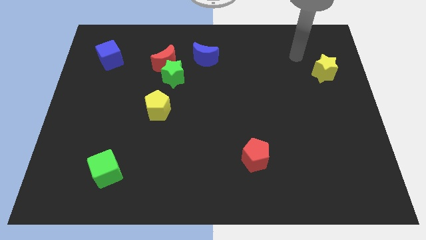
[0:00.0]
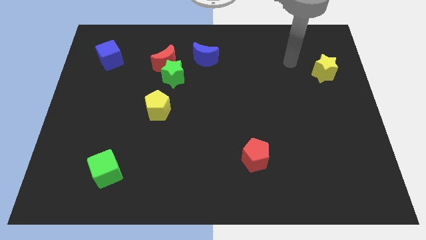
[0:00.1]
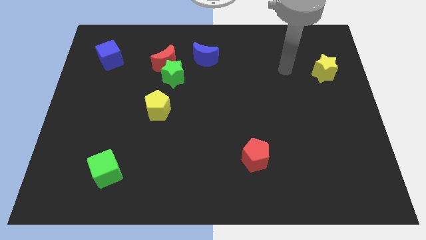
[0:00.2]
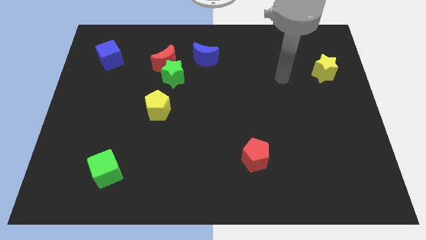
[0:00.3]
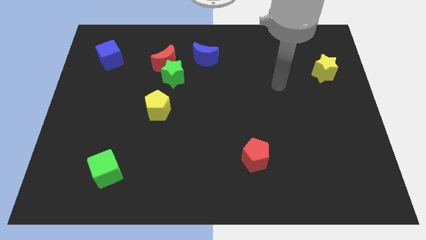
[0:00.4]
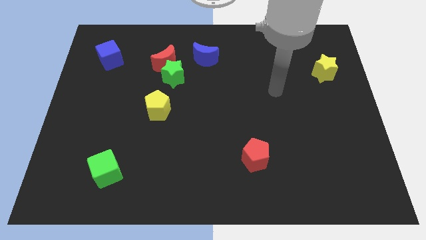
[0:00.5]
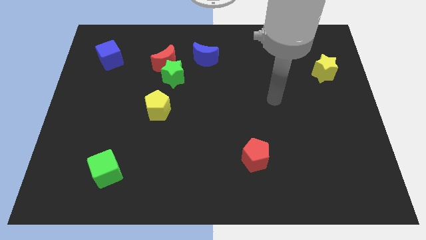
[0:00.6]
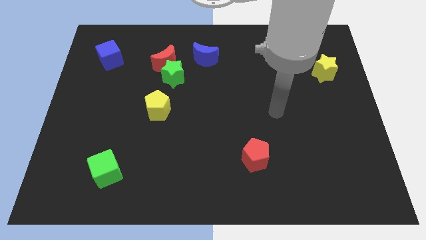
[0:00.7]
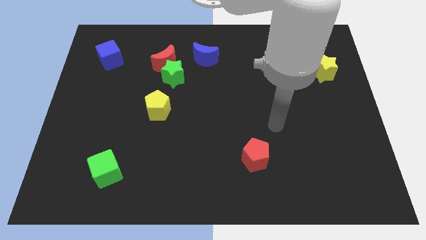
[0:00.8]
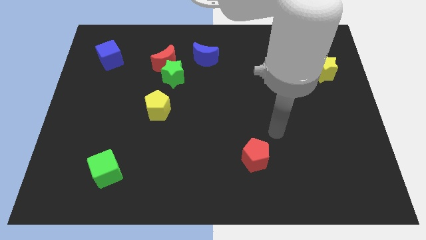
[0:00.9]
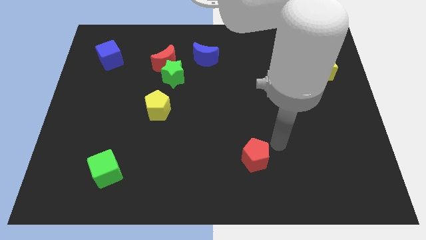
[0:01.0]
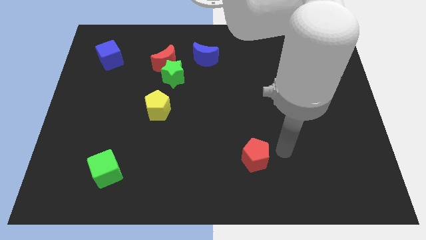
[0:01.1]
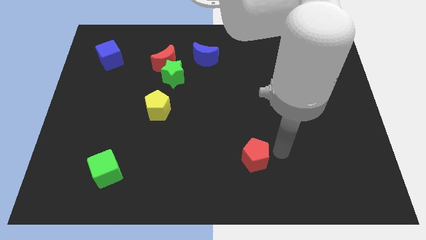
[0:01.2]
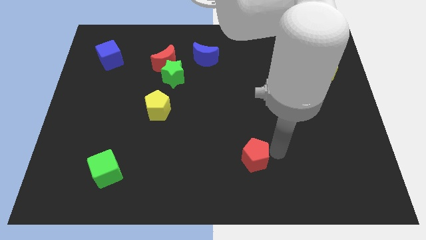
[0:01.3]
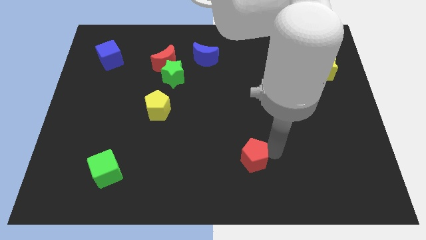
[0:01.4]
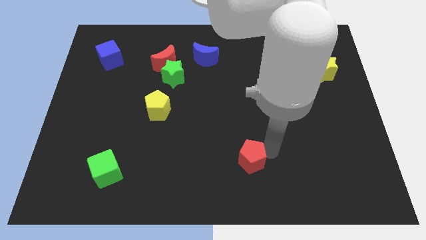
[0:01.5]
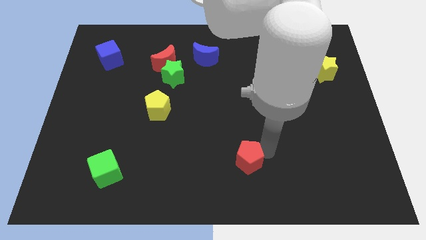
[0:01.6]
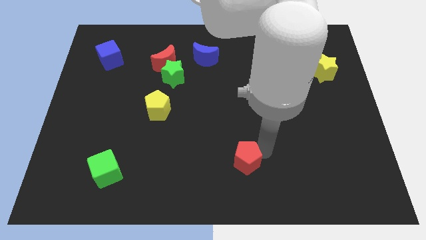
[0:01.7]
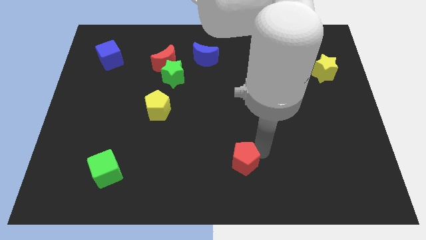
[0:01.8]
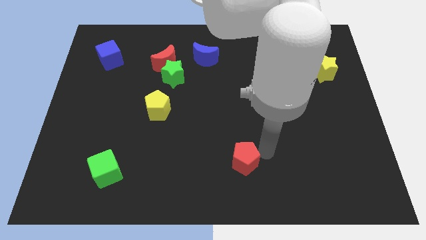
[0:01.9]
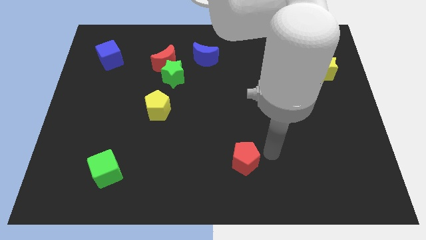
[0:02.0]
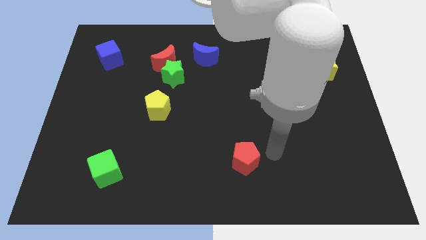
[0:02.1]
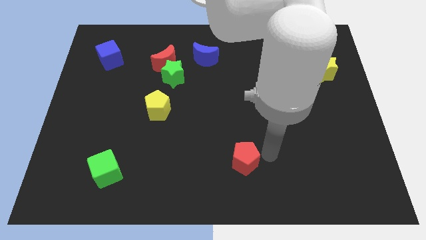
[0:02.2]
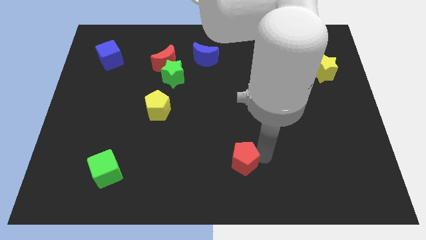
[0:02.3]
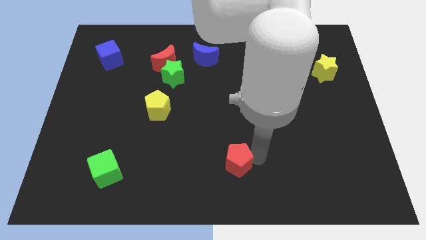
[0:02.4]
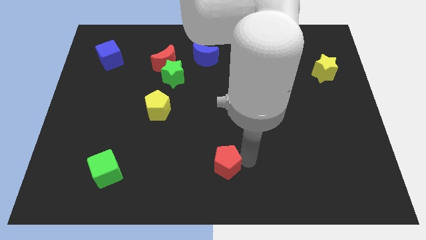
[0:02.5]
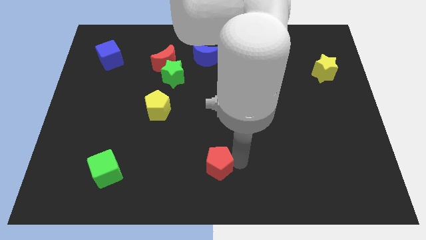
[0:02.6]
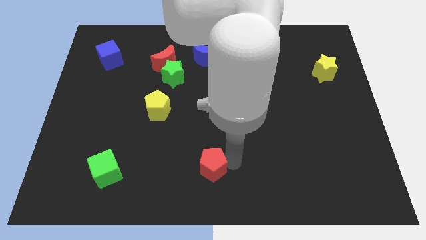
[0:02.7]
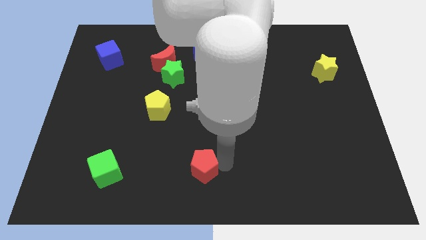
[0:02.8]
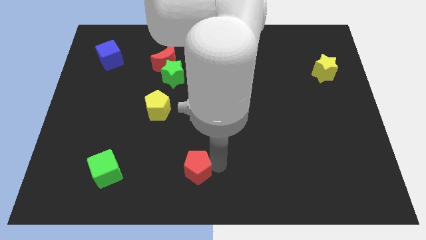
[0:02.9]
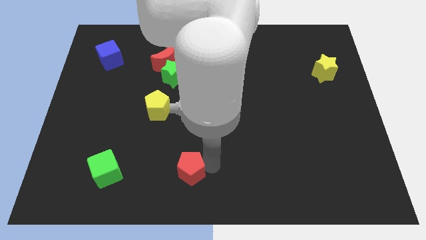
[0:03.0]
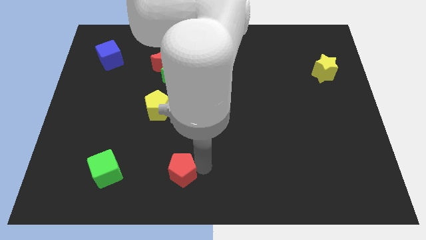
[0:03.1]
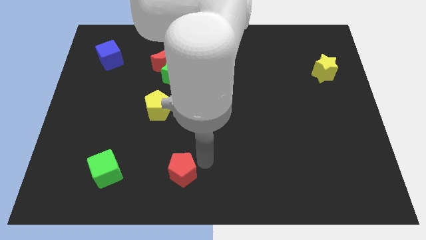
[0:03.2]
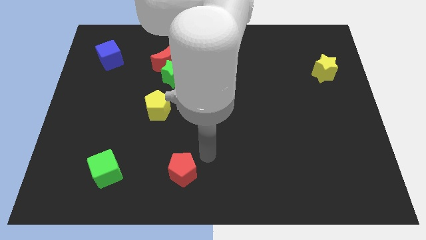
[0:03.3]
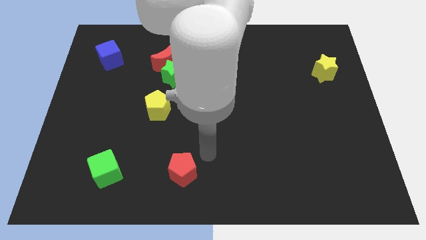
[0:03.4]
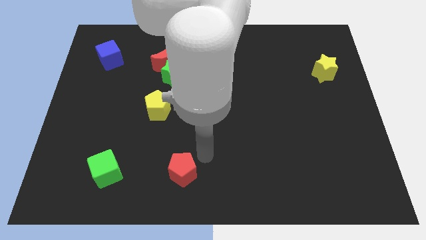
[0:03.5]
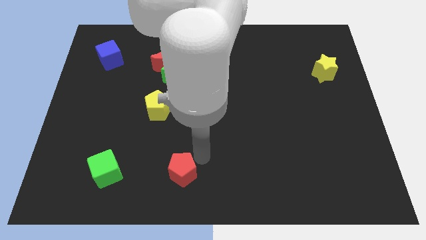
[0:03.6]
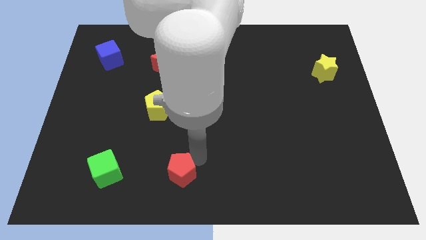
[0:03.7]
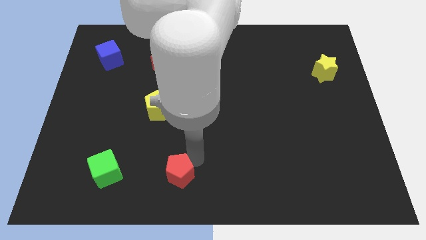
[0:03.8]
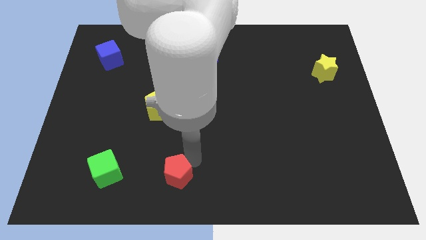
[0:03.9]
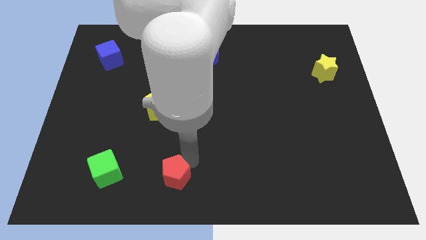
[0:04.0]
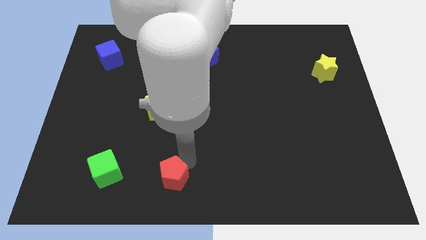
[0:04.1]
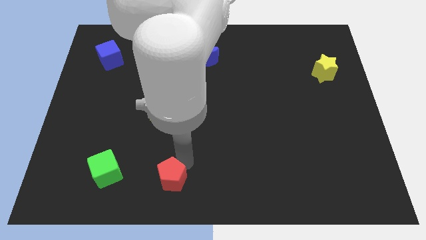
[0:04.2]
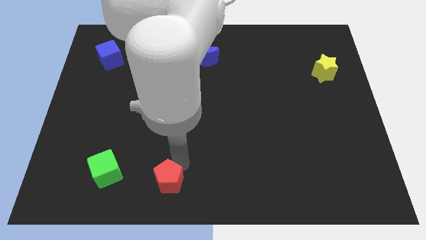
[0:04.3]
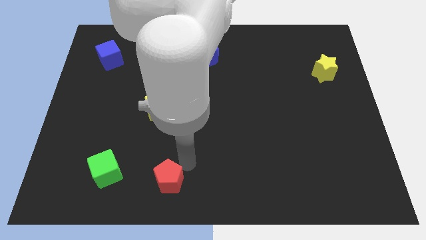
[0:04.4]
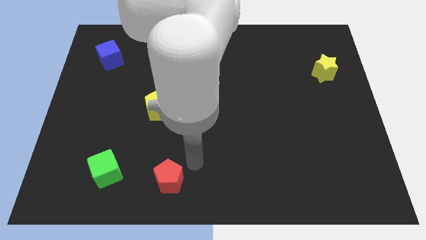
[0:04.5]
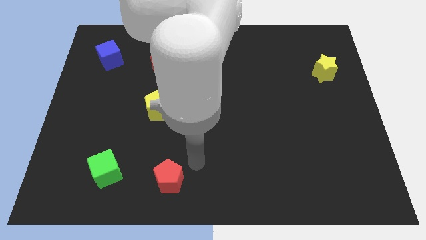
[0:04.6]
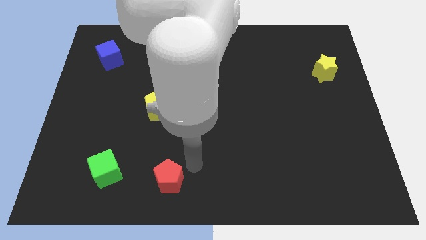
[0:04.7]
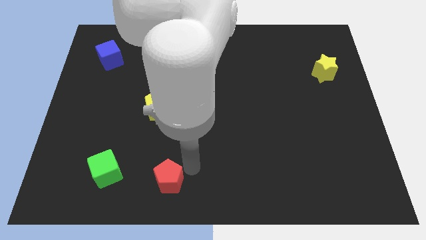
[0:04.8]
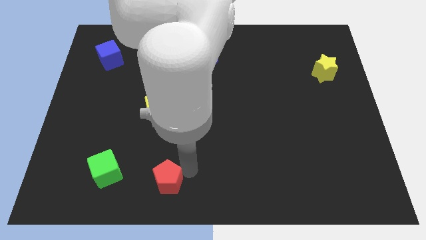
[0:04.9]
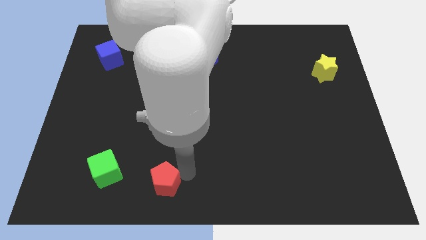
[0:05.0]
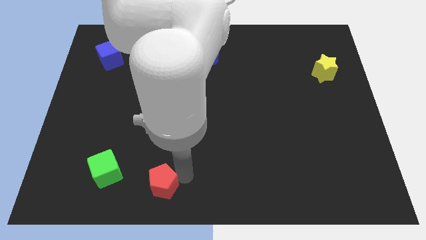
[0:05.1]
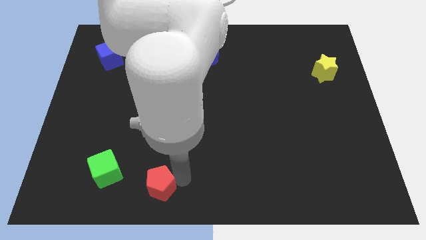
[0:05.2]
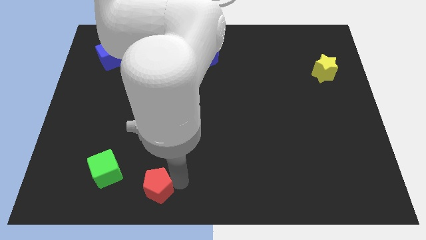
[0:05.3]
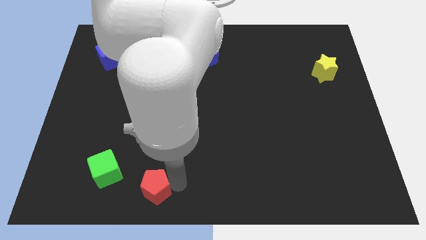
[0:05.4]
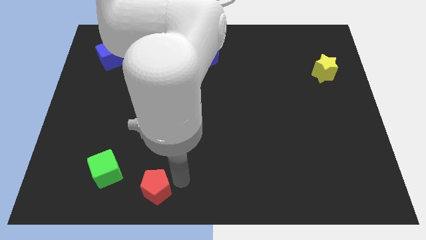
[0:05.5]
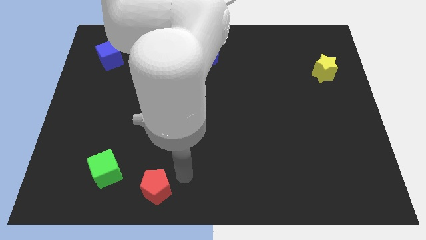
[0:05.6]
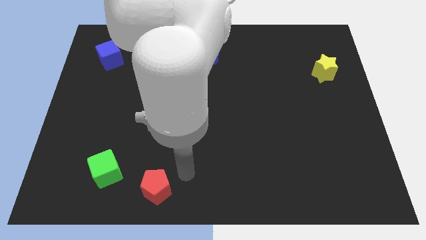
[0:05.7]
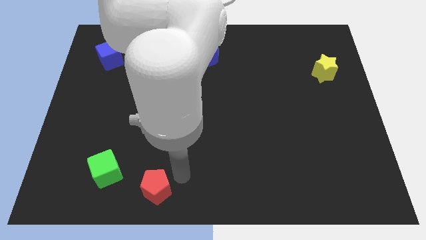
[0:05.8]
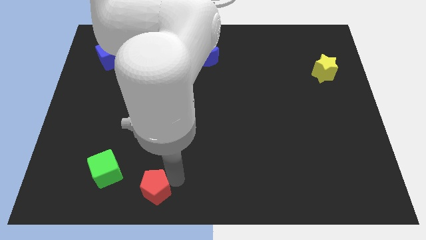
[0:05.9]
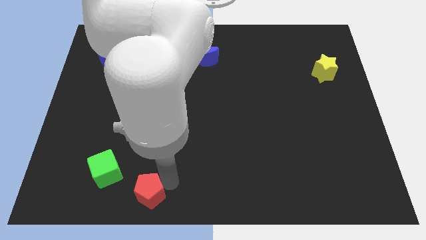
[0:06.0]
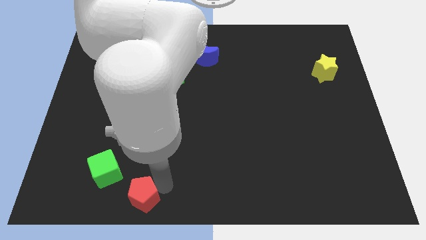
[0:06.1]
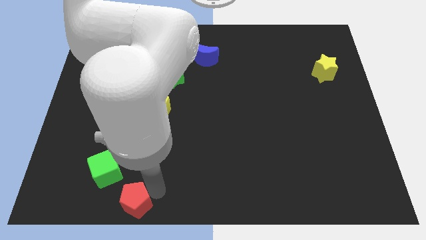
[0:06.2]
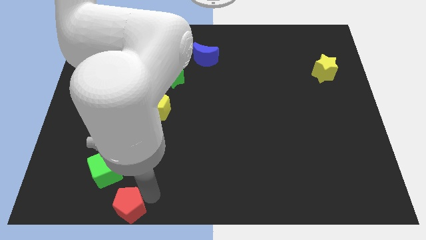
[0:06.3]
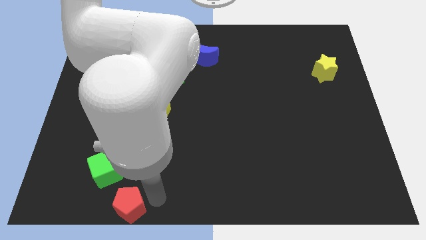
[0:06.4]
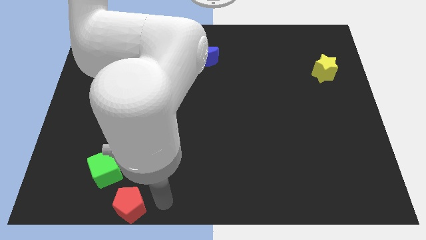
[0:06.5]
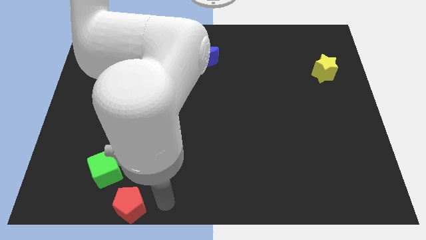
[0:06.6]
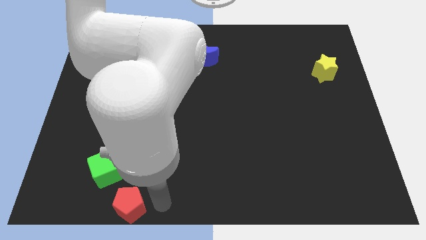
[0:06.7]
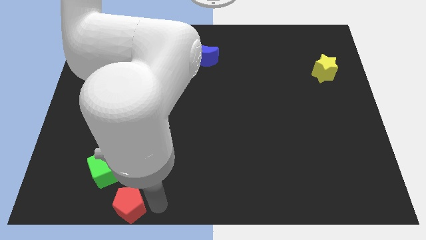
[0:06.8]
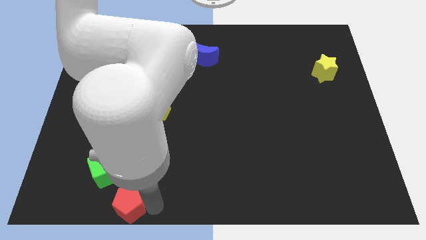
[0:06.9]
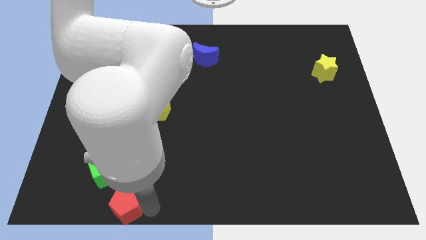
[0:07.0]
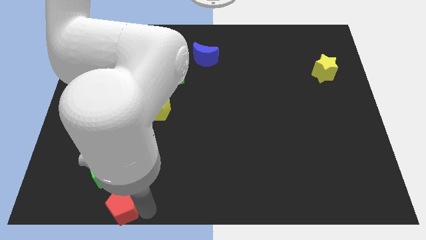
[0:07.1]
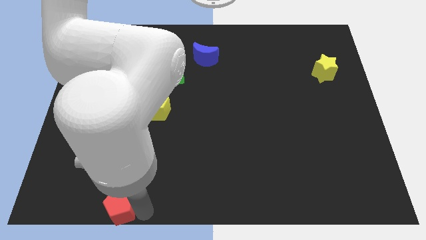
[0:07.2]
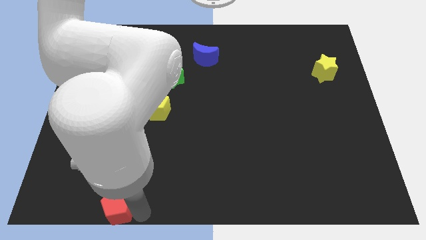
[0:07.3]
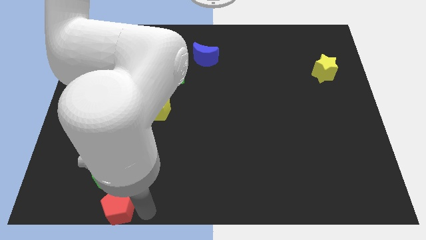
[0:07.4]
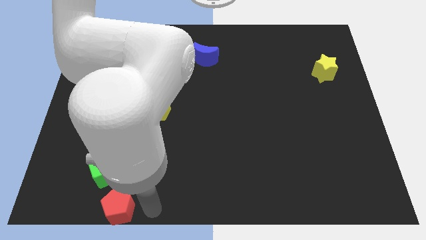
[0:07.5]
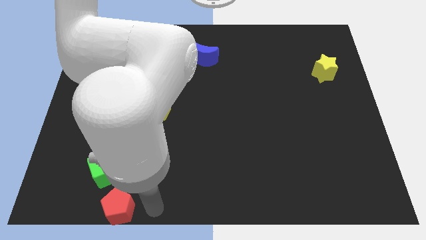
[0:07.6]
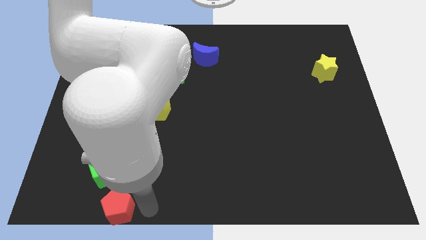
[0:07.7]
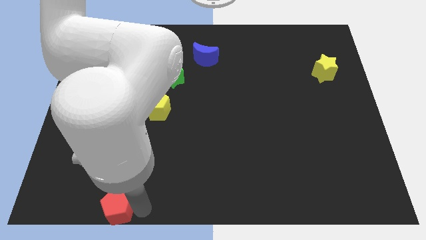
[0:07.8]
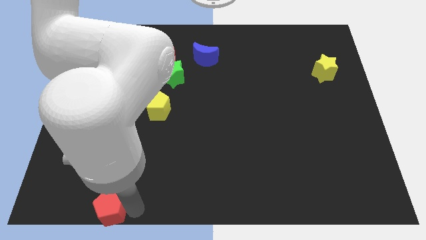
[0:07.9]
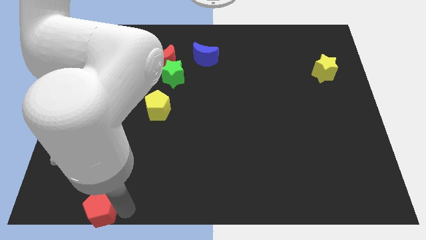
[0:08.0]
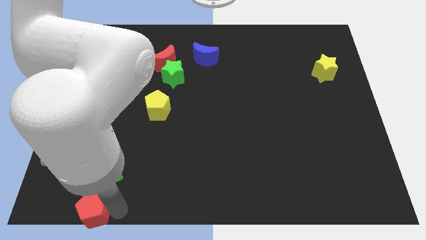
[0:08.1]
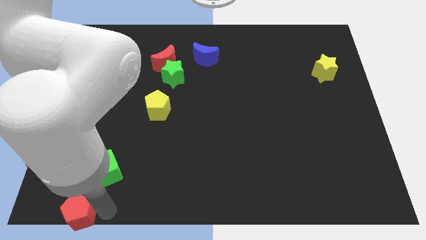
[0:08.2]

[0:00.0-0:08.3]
put the red pentagon to the bottom left corner
